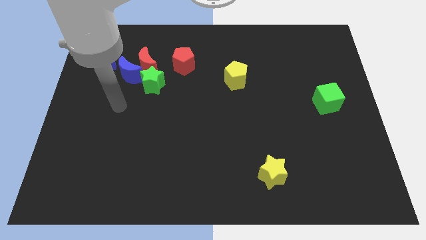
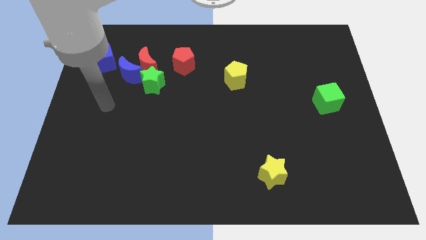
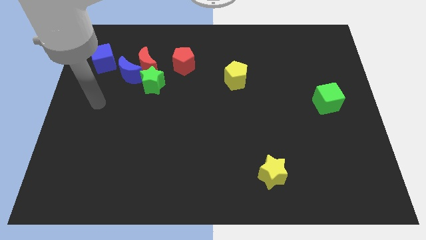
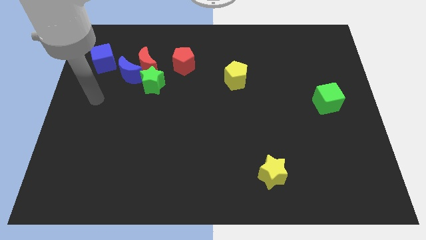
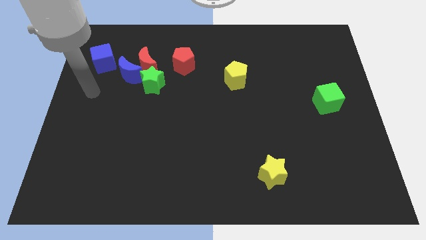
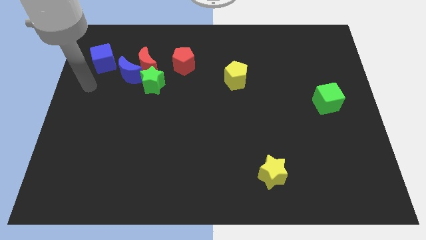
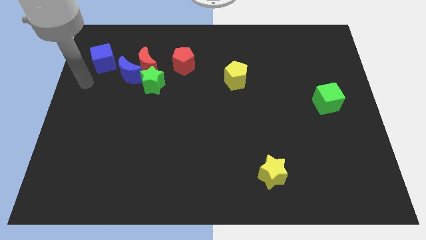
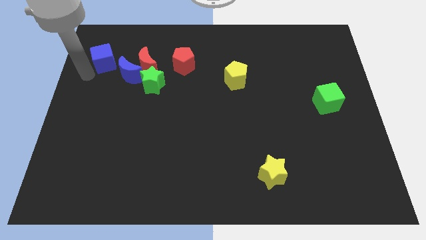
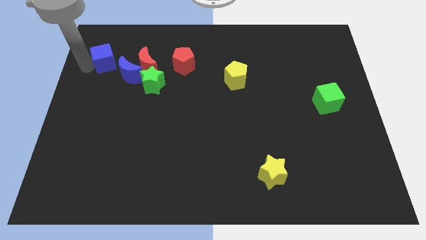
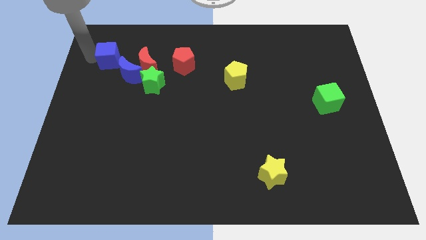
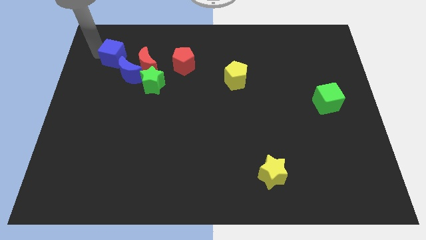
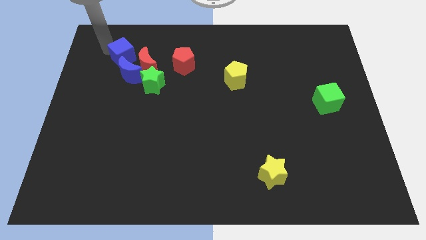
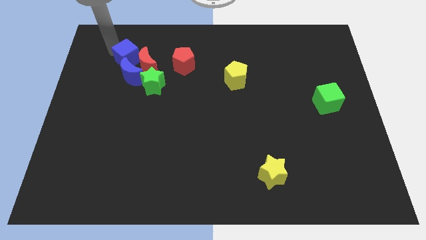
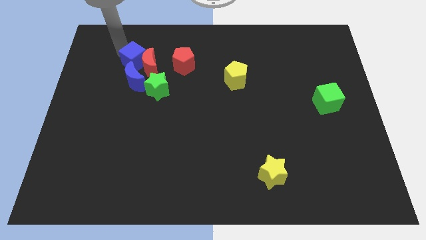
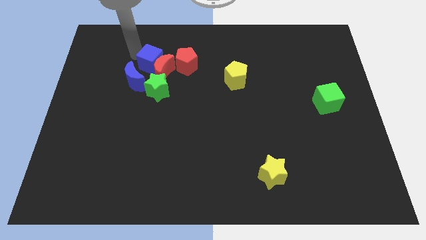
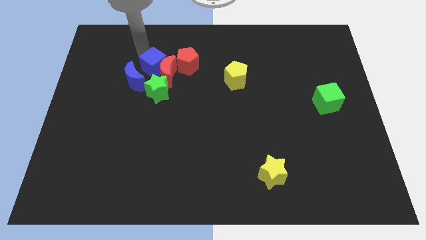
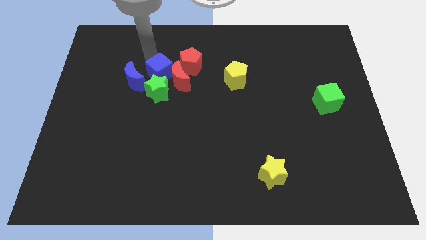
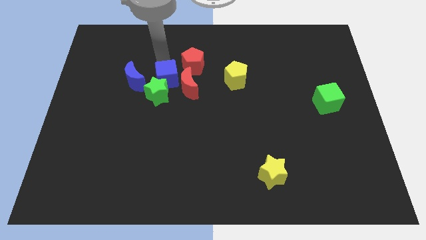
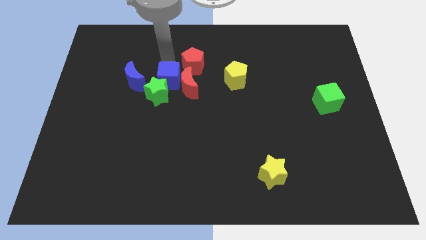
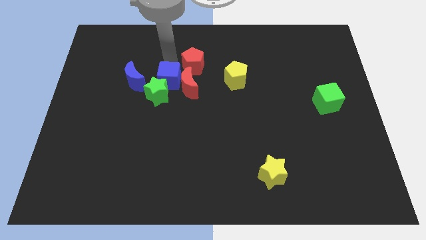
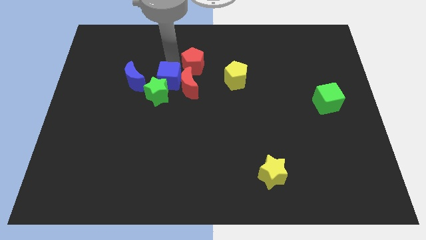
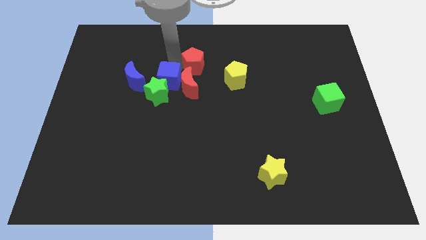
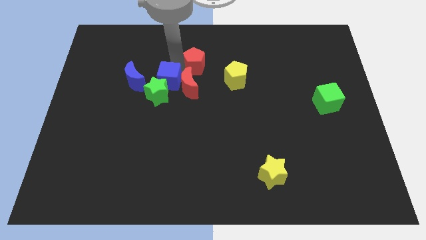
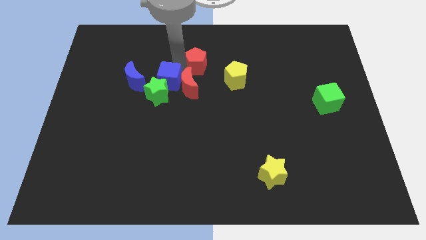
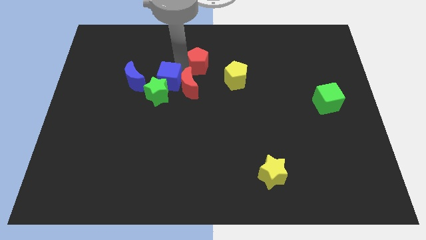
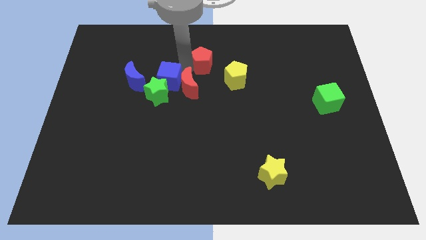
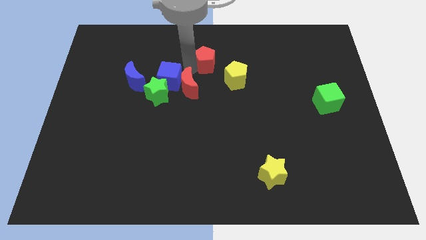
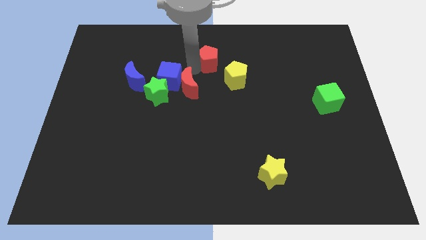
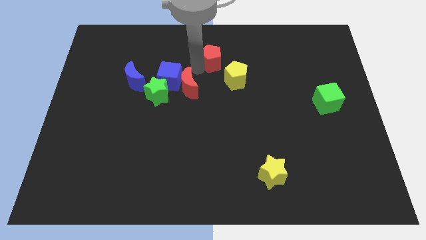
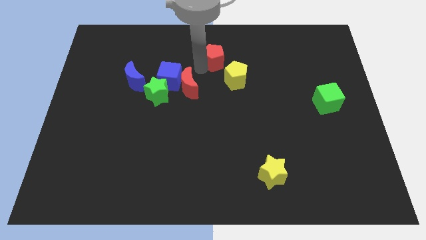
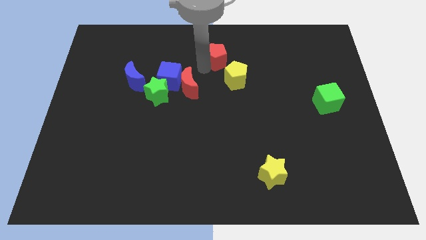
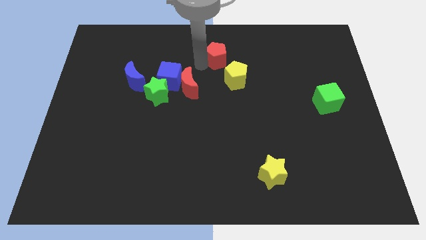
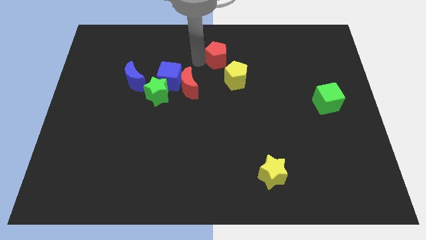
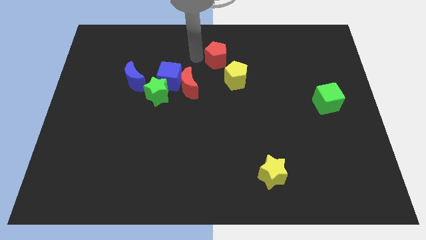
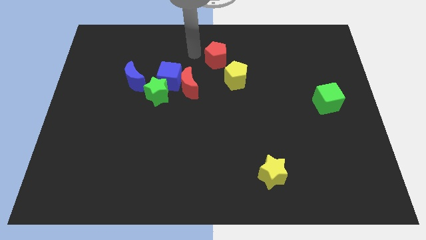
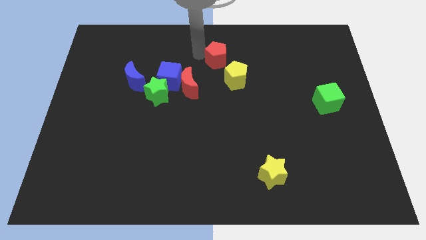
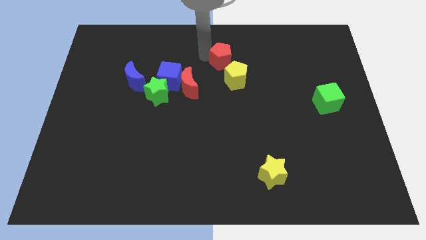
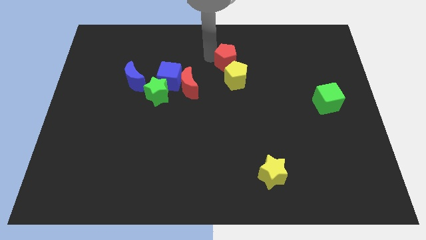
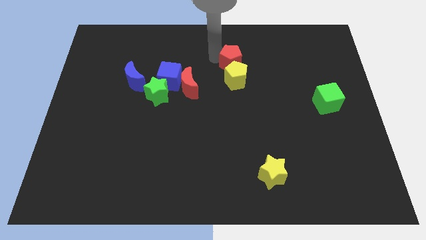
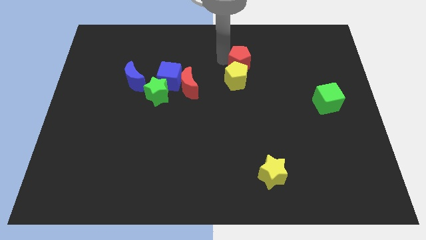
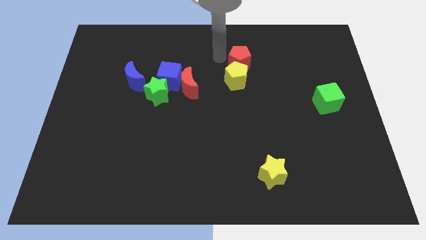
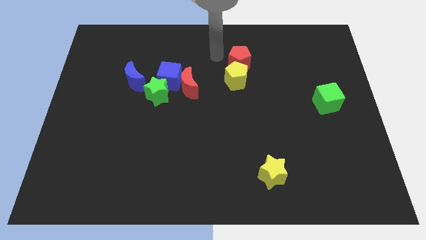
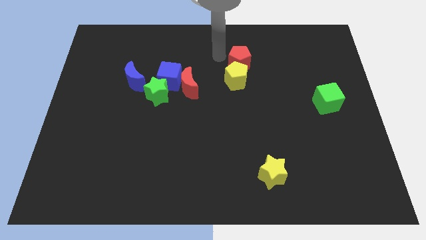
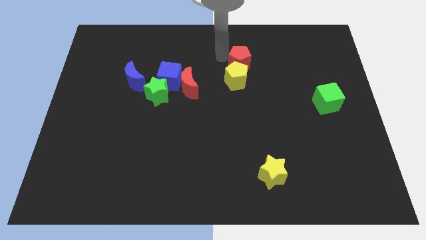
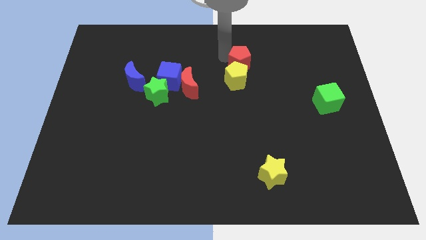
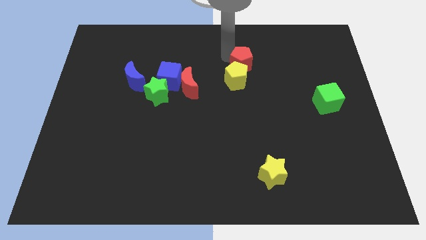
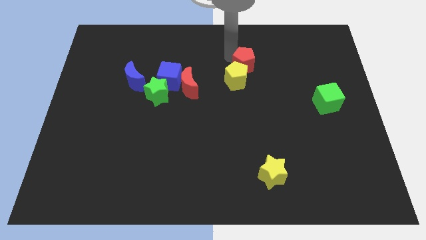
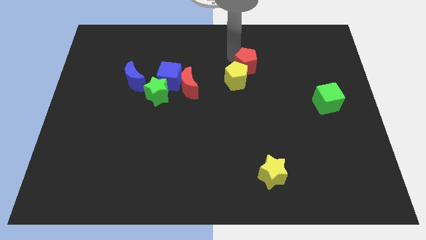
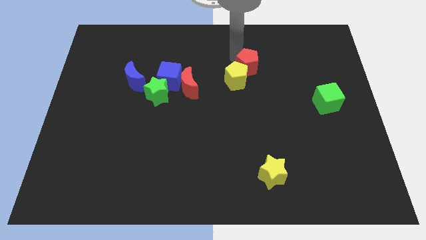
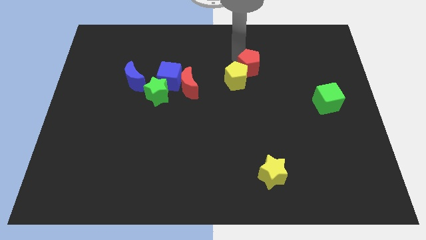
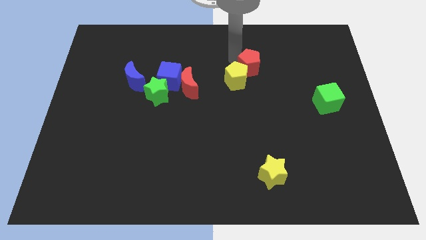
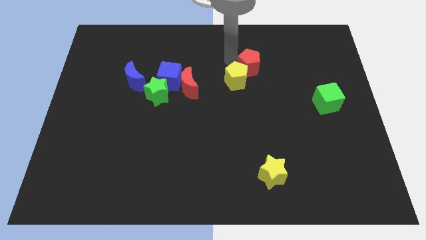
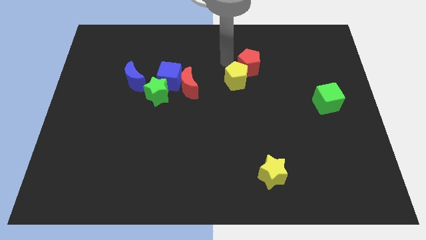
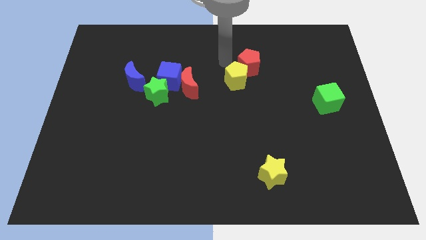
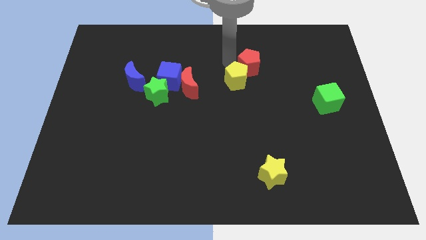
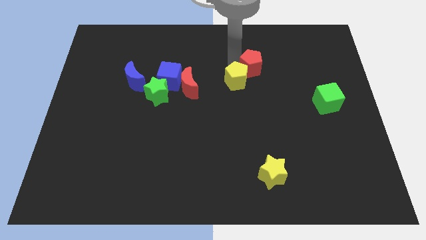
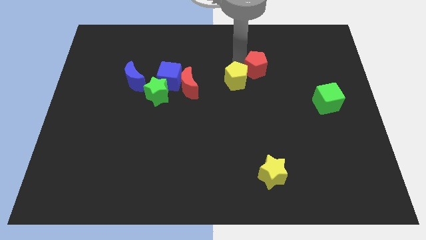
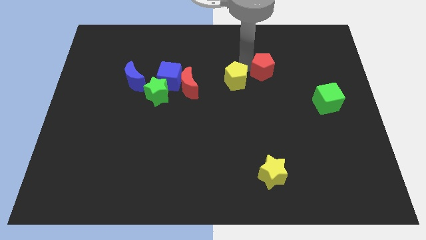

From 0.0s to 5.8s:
slide the red pentagon to the right

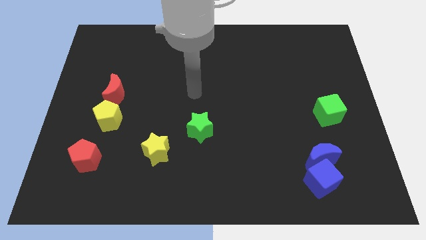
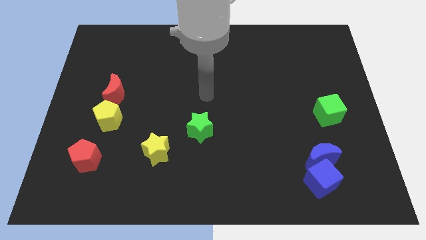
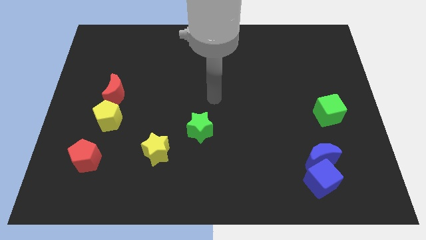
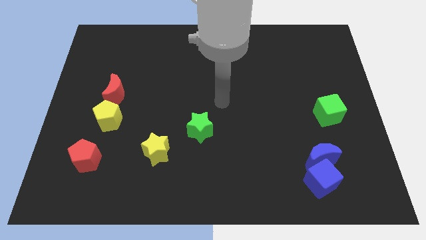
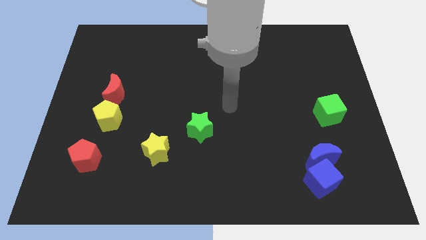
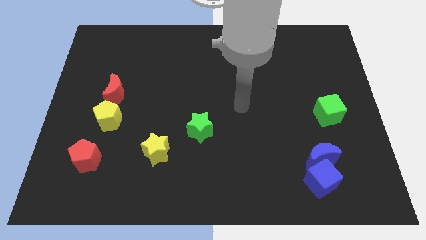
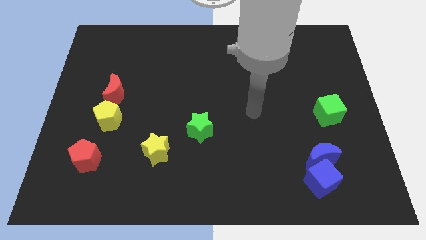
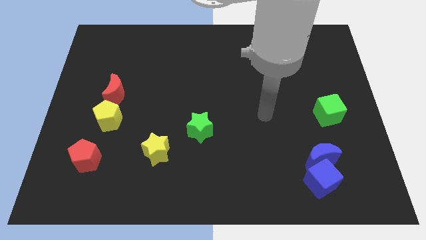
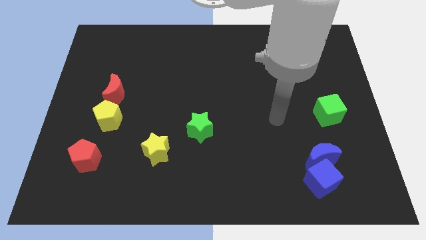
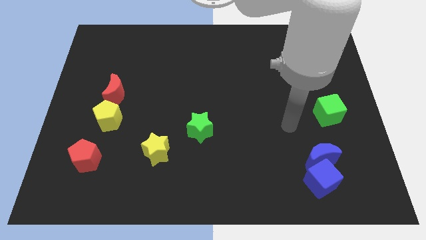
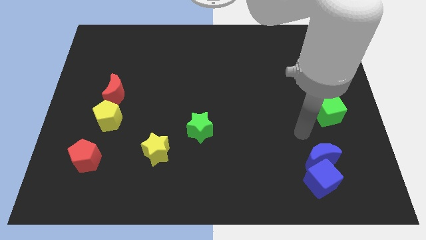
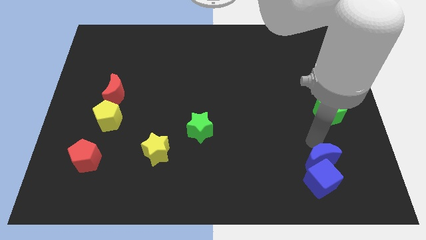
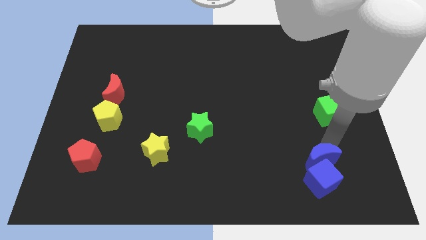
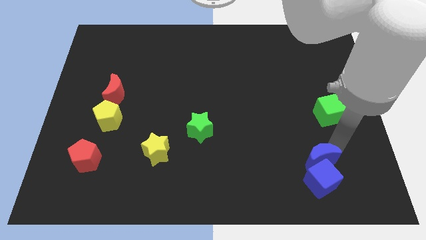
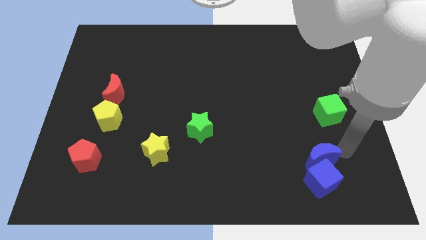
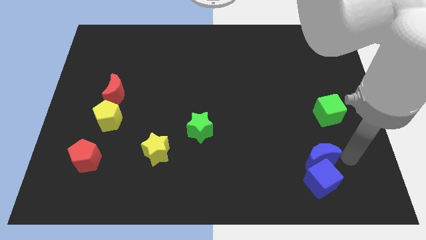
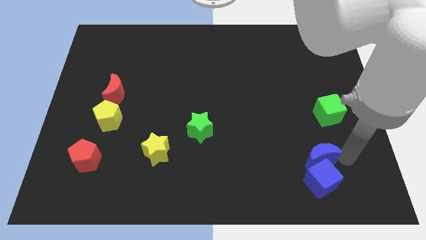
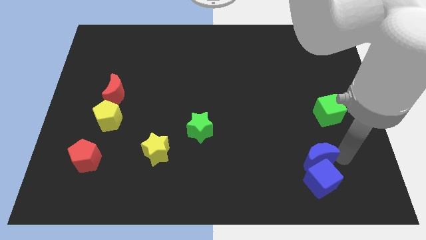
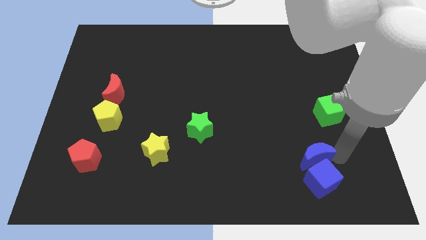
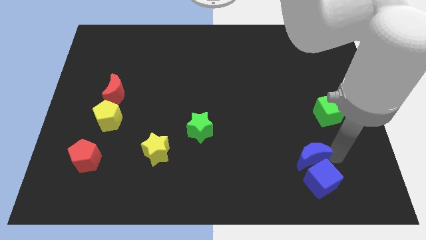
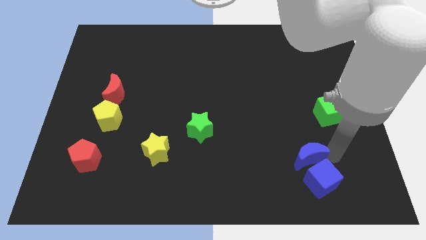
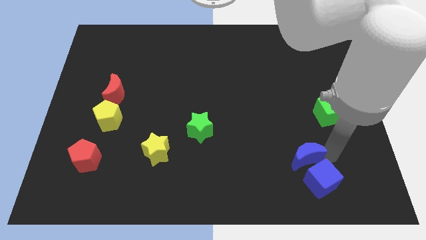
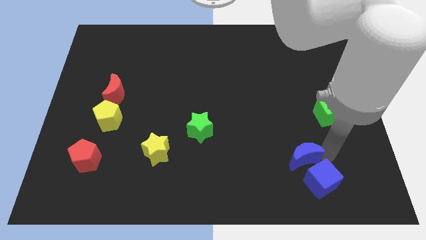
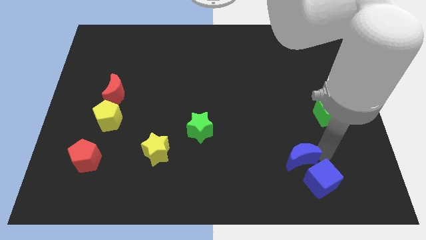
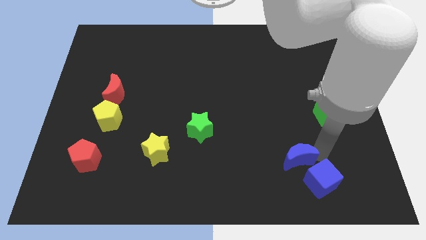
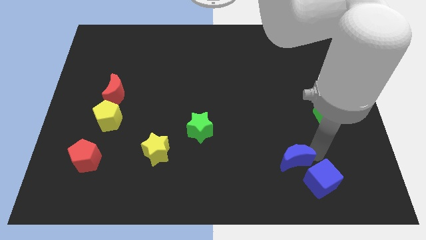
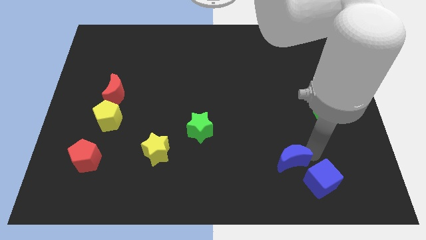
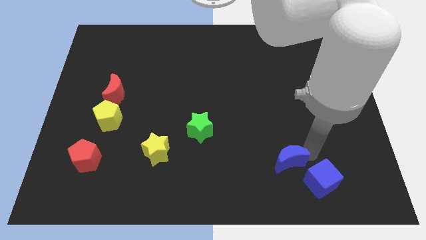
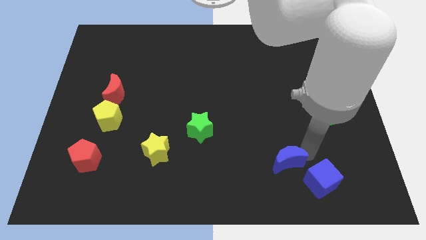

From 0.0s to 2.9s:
push the blue moon left a little
